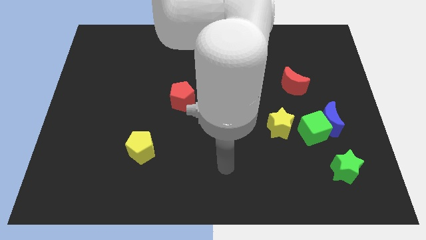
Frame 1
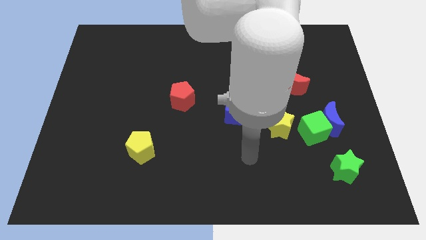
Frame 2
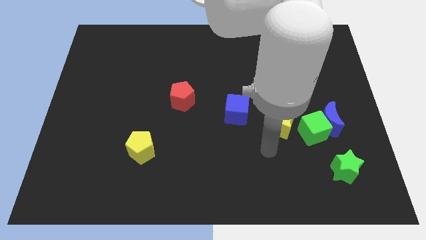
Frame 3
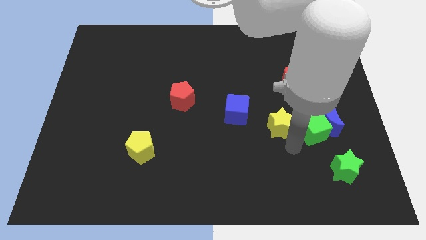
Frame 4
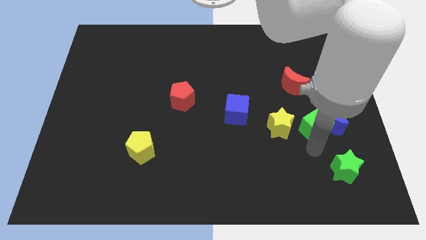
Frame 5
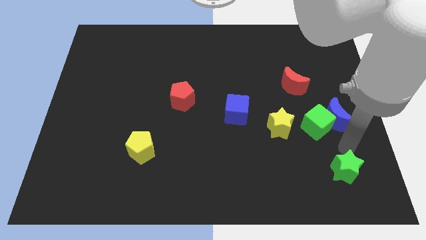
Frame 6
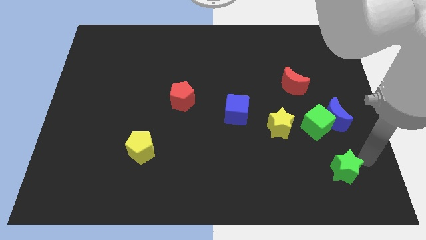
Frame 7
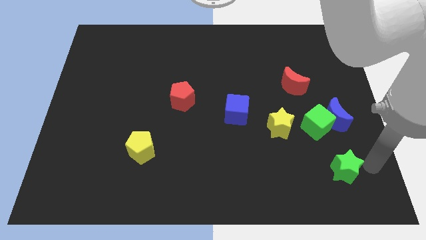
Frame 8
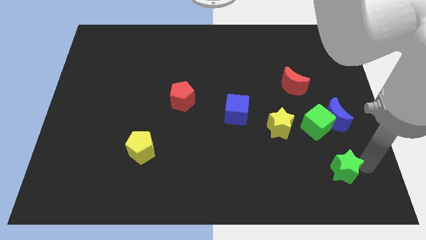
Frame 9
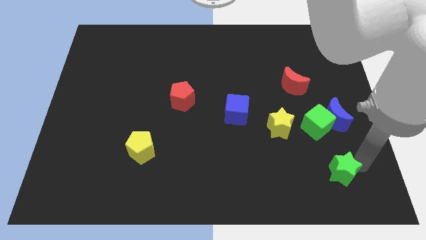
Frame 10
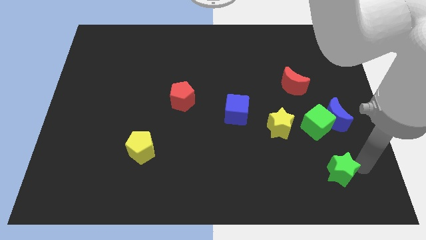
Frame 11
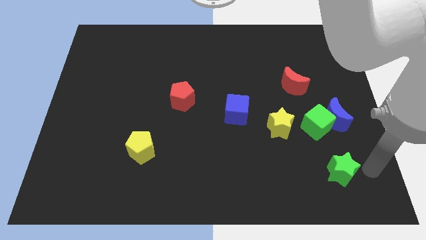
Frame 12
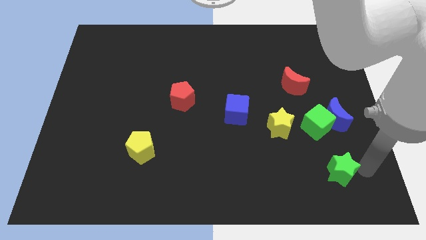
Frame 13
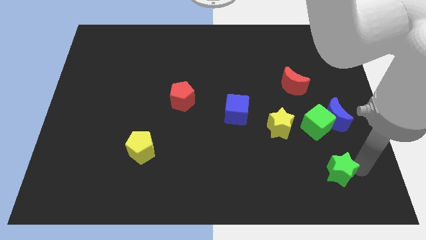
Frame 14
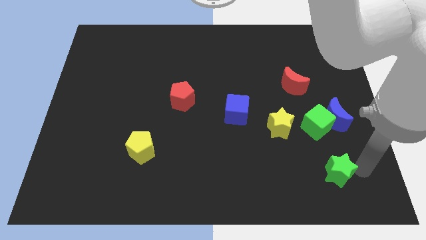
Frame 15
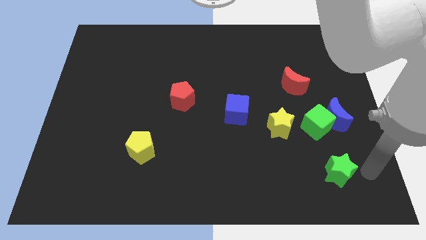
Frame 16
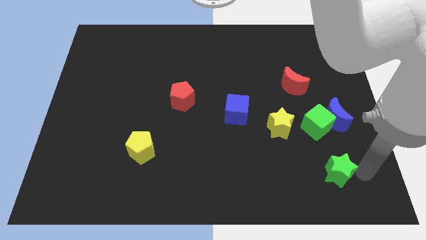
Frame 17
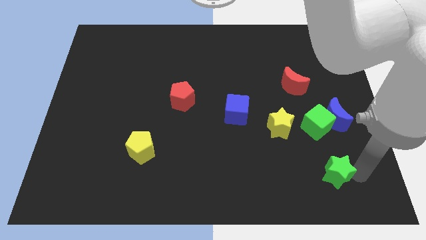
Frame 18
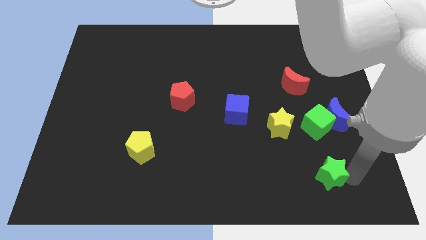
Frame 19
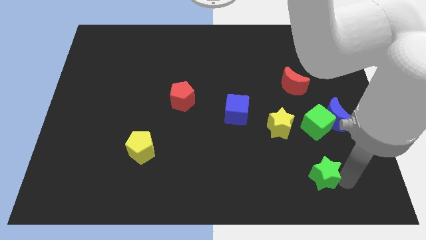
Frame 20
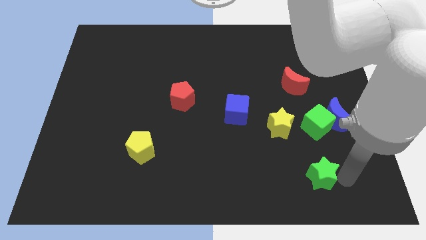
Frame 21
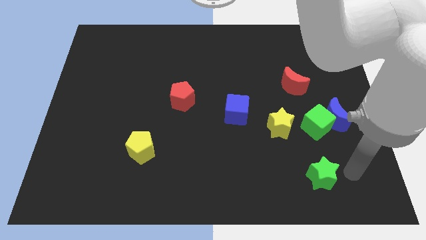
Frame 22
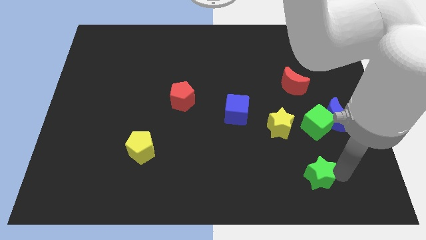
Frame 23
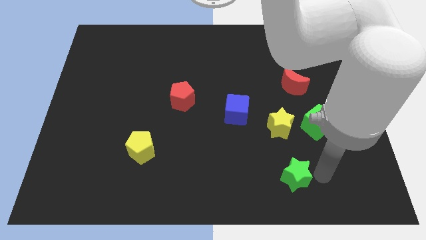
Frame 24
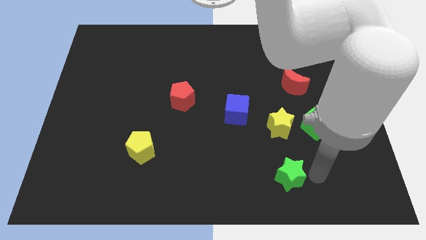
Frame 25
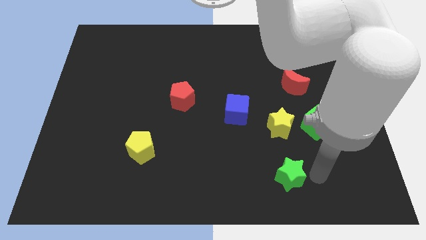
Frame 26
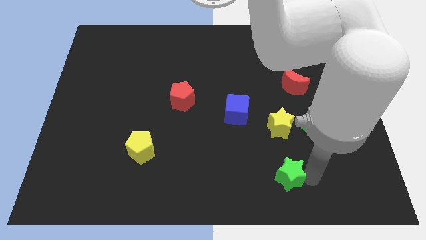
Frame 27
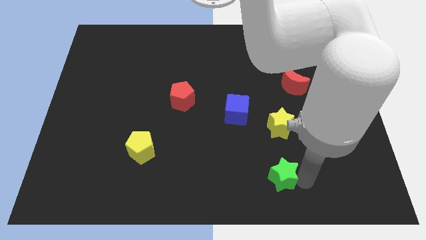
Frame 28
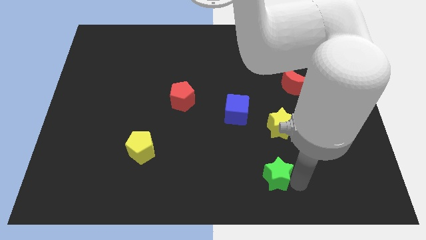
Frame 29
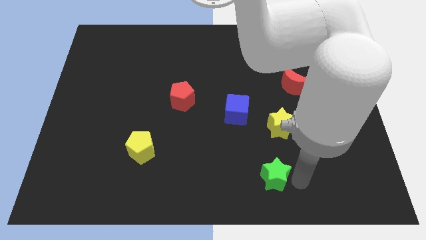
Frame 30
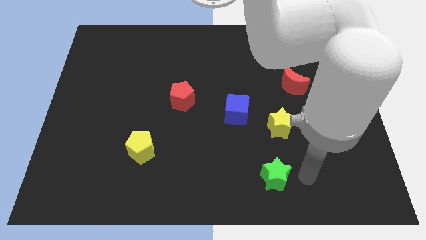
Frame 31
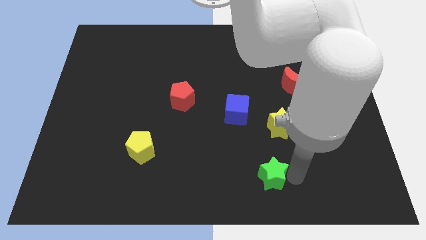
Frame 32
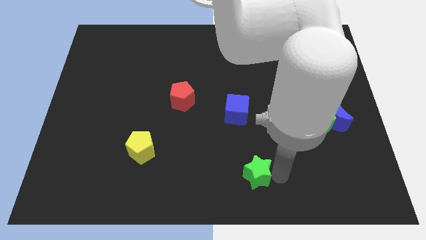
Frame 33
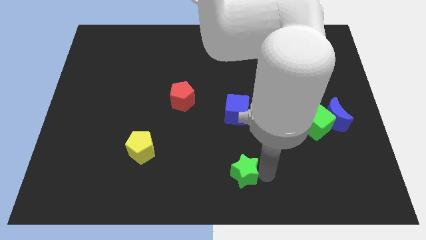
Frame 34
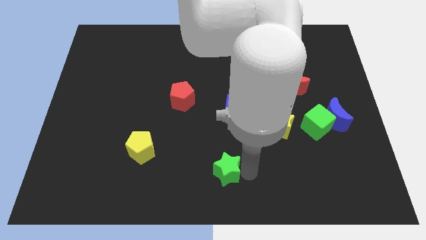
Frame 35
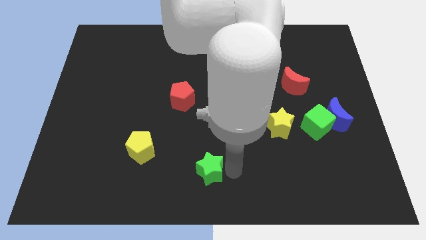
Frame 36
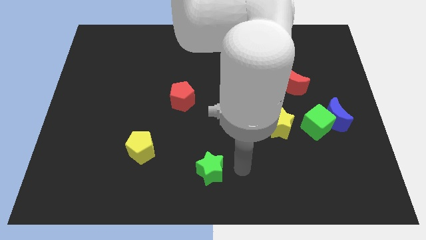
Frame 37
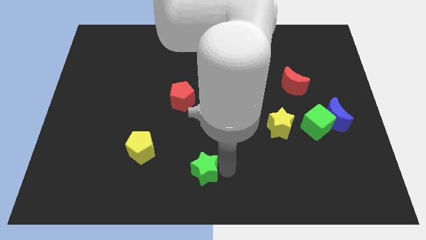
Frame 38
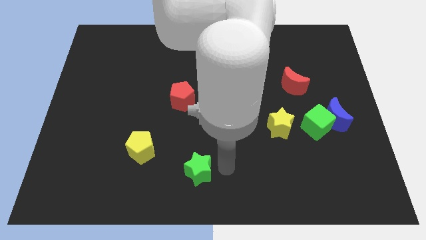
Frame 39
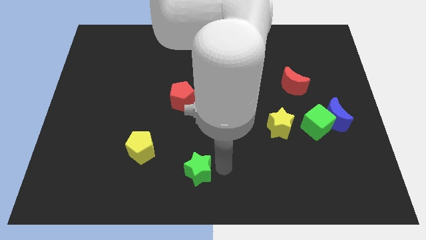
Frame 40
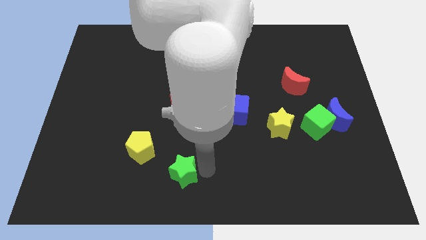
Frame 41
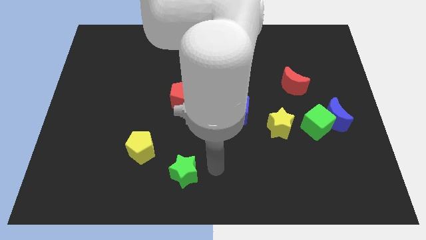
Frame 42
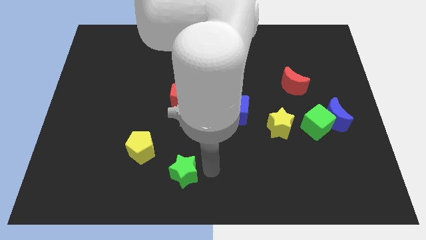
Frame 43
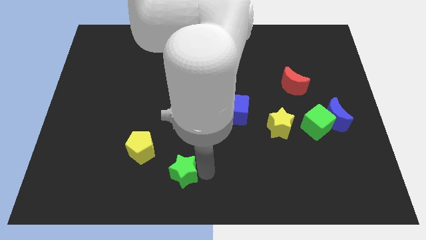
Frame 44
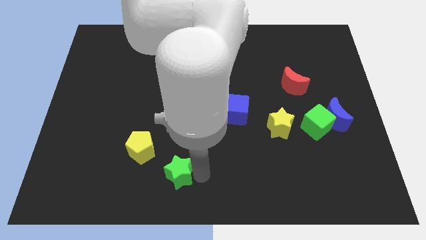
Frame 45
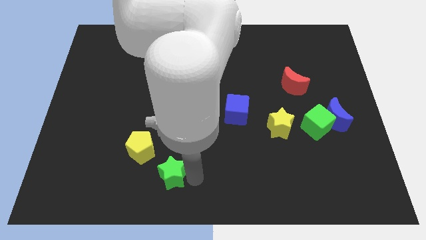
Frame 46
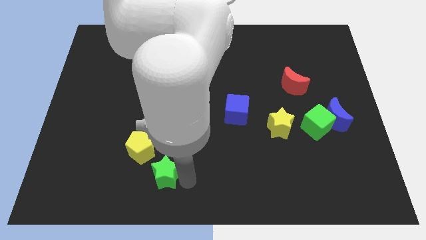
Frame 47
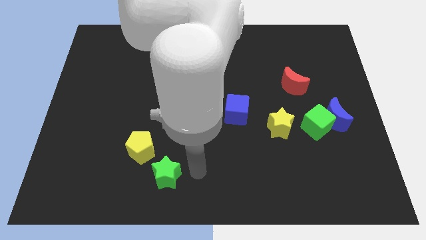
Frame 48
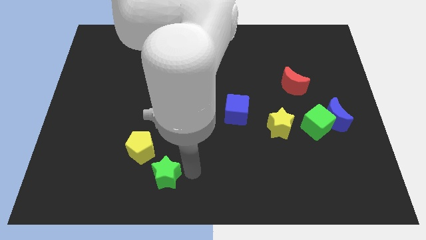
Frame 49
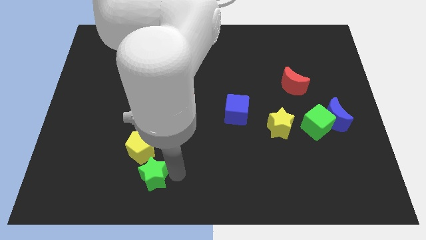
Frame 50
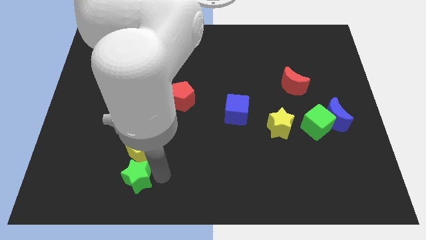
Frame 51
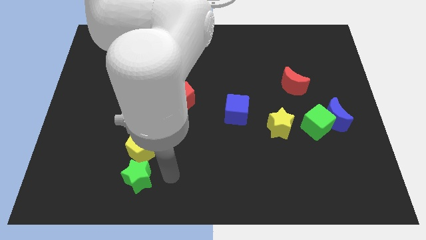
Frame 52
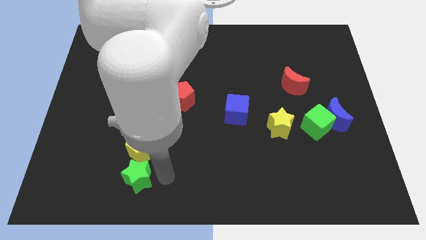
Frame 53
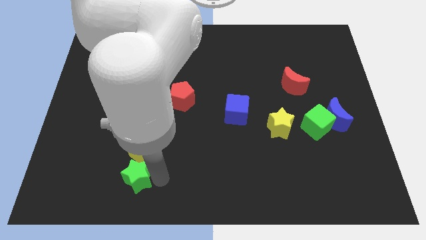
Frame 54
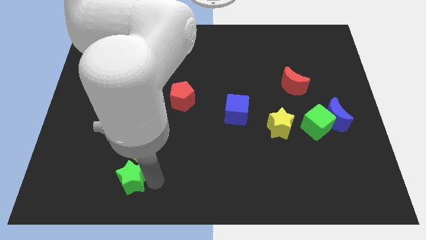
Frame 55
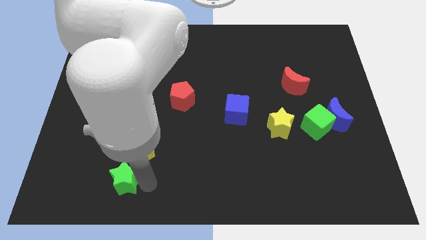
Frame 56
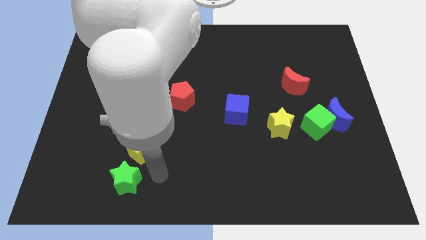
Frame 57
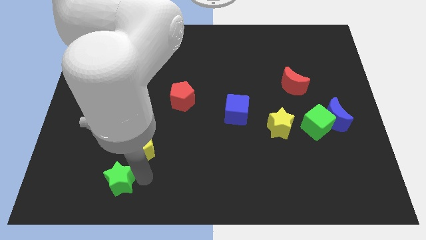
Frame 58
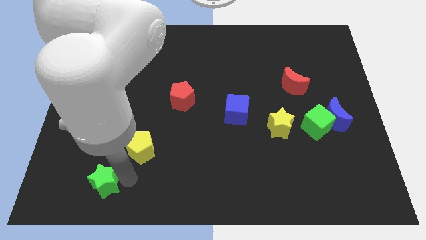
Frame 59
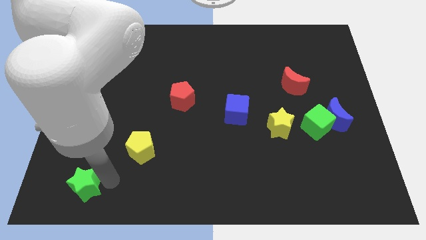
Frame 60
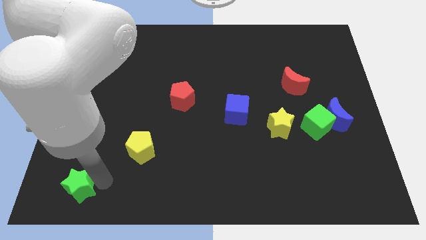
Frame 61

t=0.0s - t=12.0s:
put the green star to the lower left corner

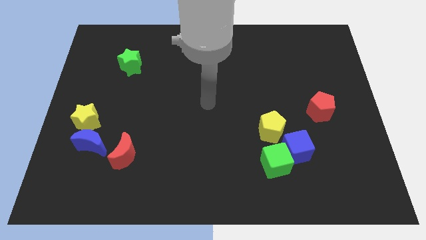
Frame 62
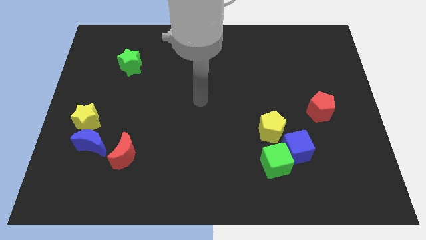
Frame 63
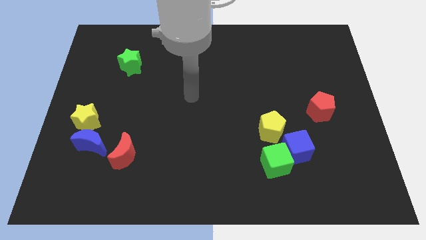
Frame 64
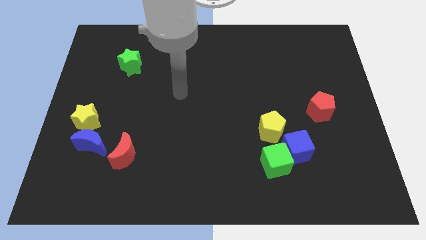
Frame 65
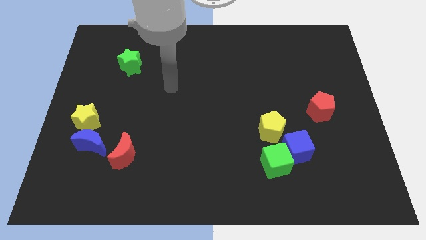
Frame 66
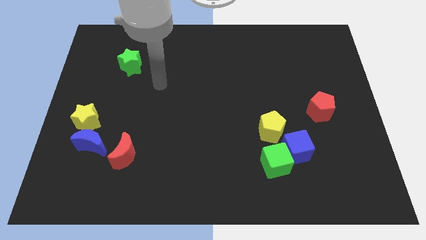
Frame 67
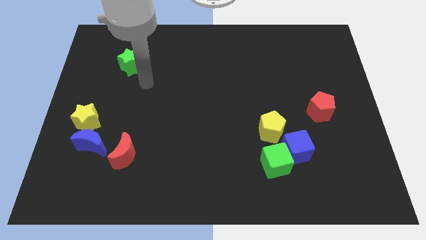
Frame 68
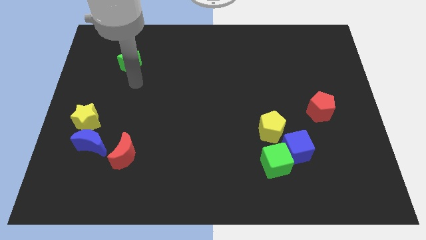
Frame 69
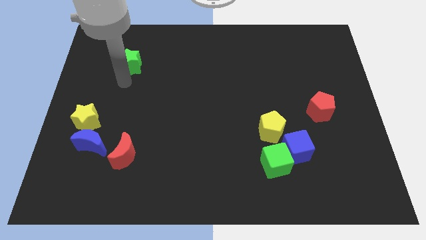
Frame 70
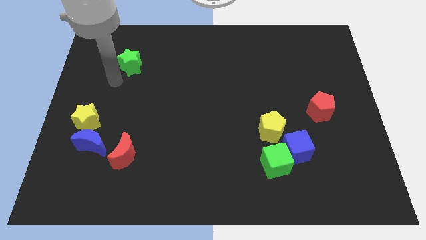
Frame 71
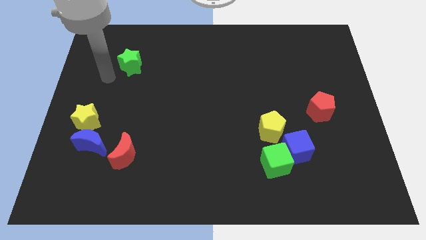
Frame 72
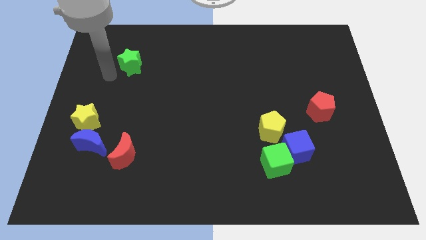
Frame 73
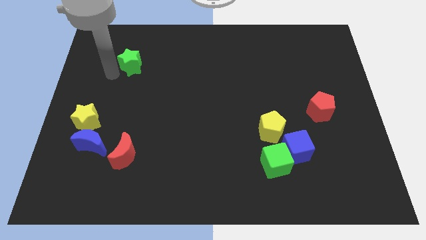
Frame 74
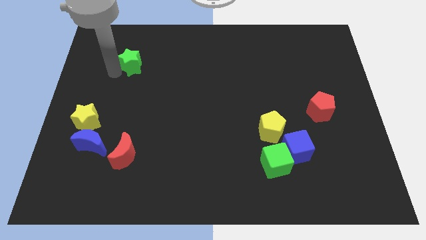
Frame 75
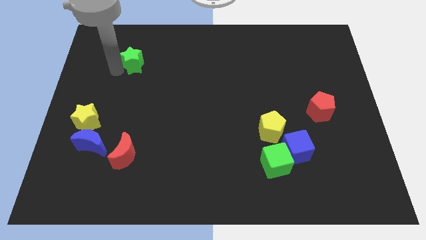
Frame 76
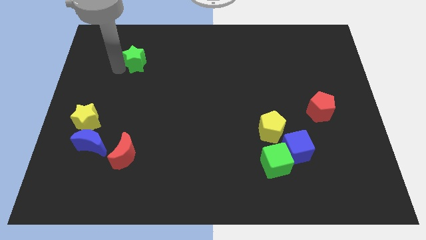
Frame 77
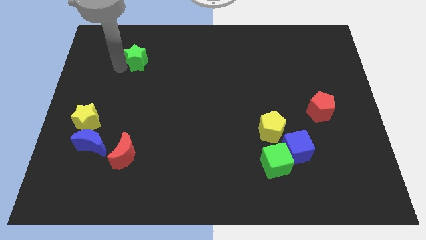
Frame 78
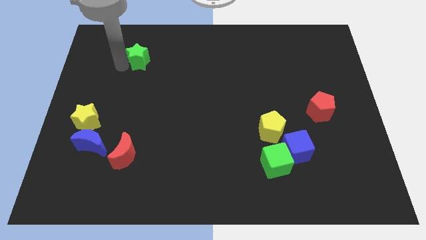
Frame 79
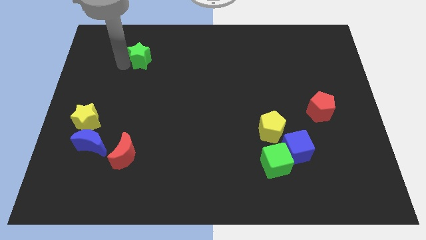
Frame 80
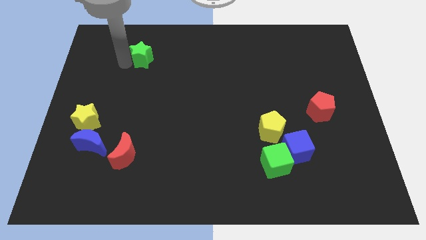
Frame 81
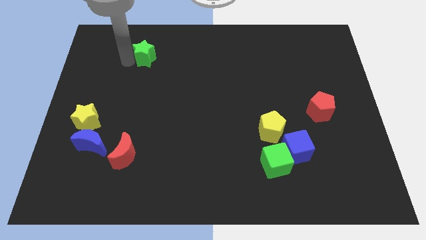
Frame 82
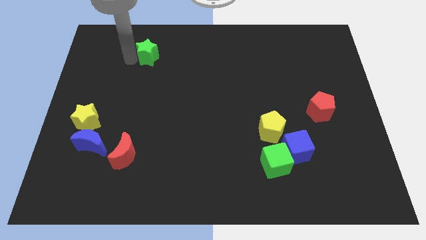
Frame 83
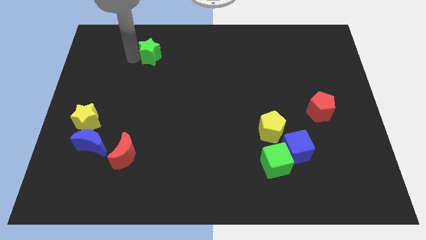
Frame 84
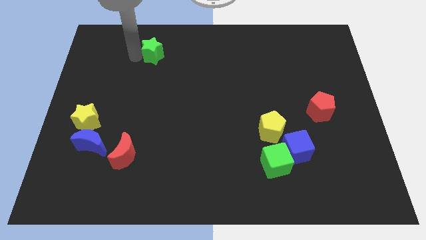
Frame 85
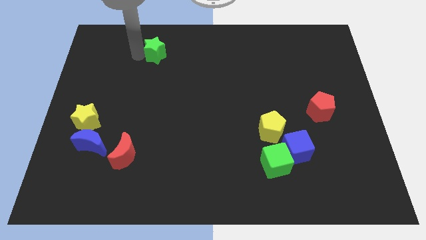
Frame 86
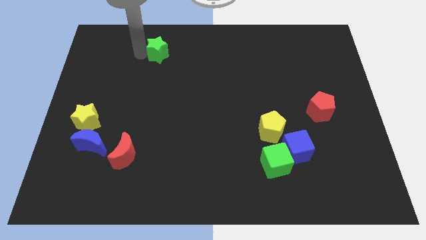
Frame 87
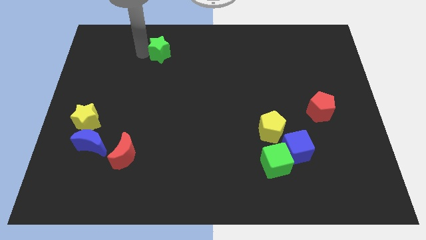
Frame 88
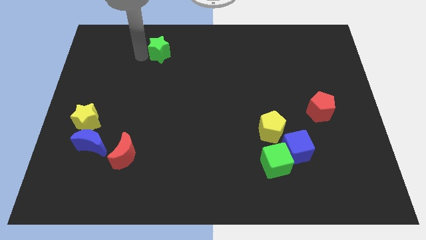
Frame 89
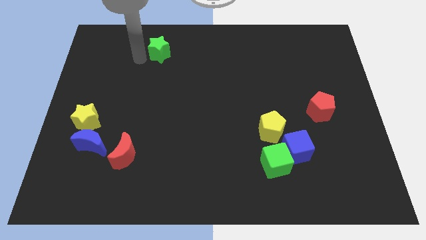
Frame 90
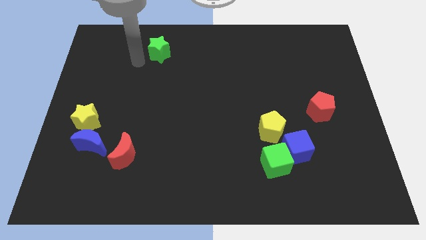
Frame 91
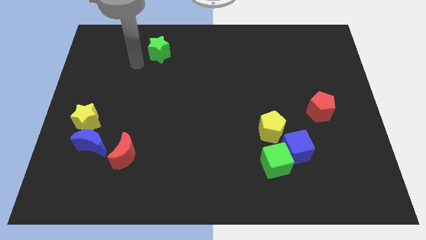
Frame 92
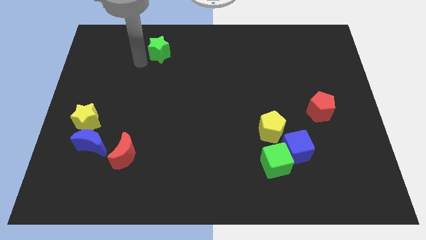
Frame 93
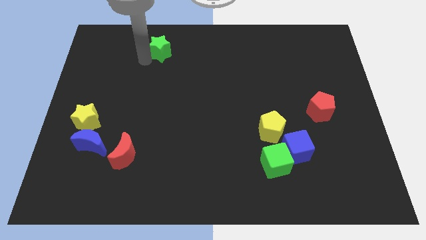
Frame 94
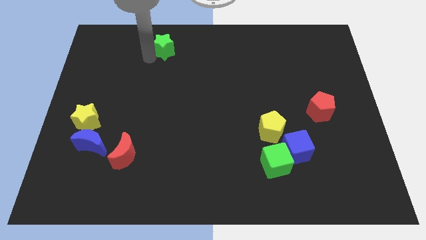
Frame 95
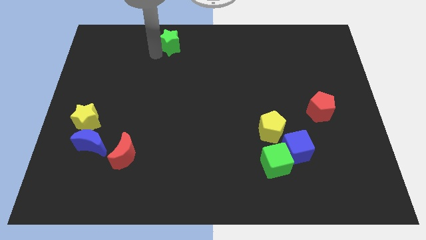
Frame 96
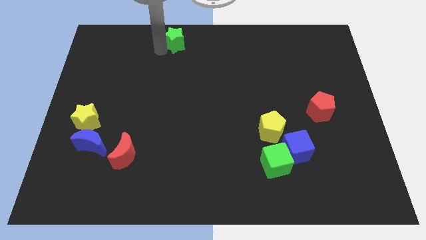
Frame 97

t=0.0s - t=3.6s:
slide the green star to the towards your base
